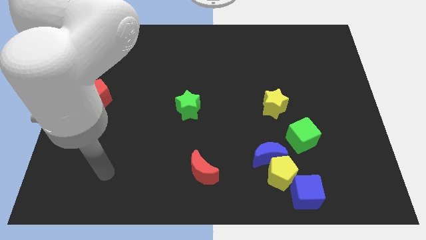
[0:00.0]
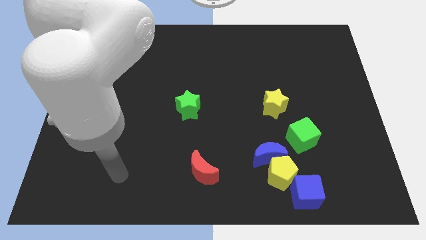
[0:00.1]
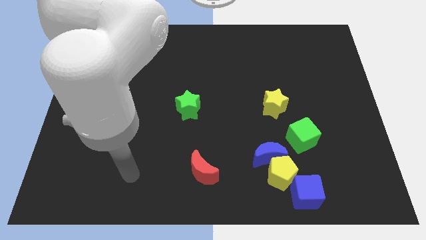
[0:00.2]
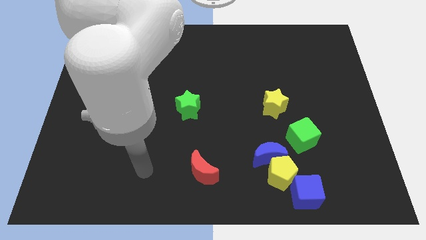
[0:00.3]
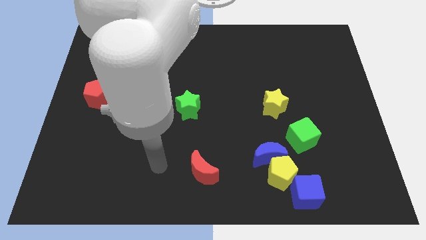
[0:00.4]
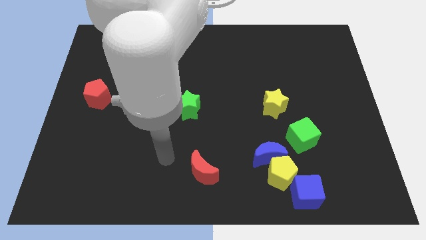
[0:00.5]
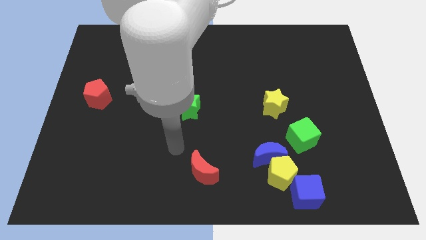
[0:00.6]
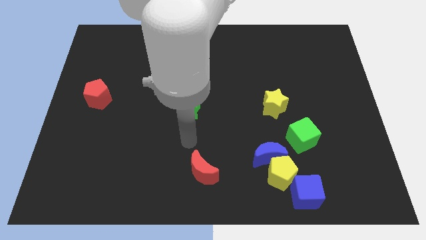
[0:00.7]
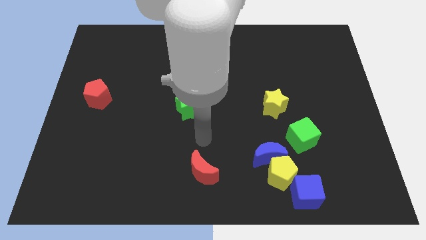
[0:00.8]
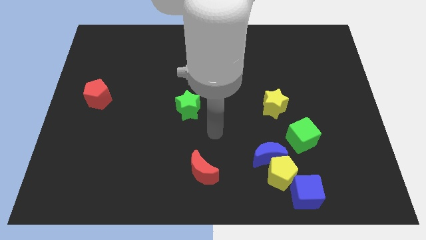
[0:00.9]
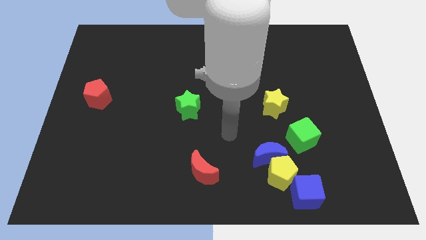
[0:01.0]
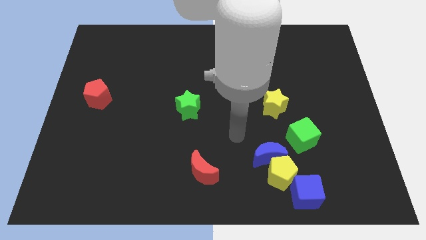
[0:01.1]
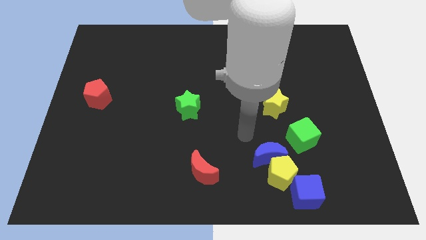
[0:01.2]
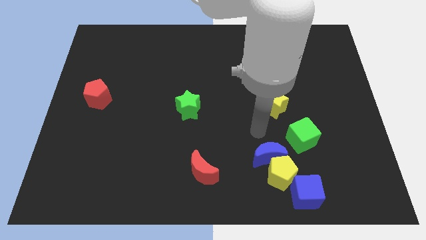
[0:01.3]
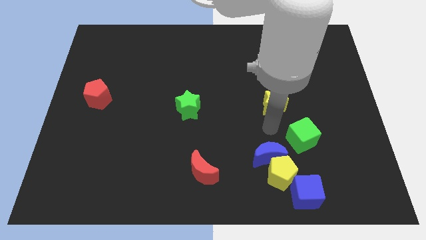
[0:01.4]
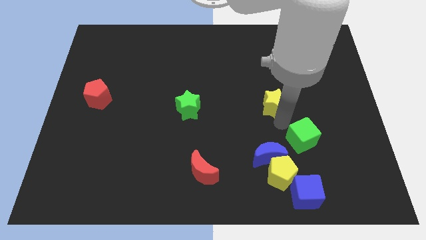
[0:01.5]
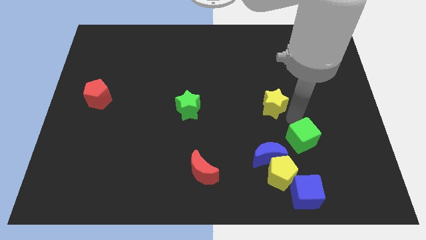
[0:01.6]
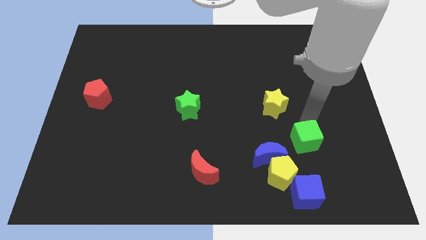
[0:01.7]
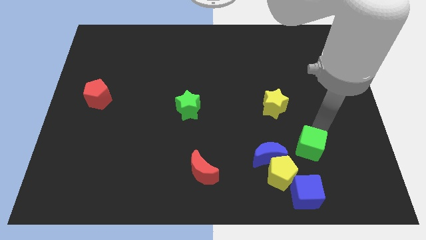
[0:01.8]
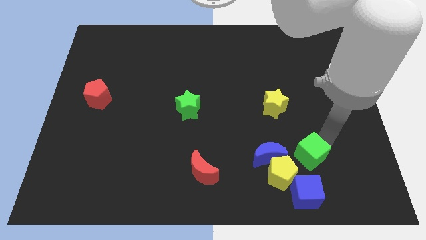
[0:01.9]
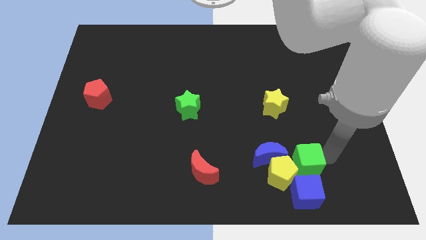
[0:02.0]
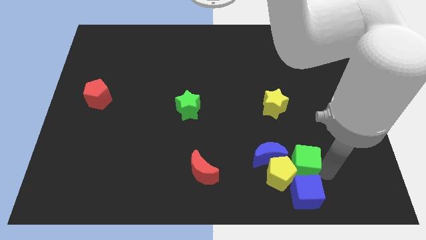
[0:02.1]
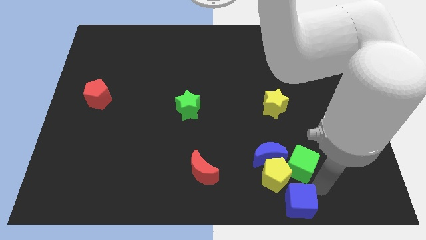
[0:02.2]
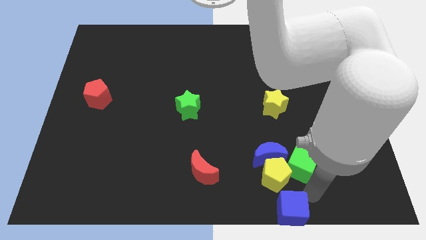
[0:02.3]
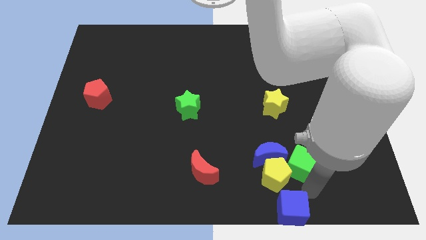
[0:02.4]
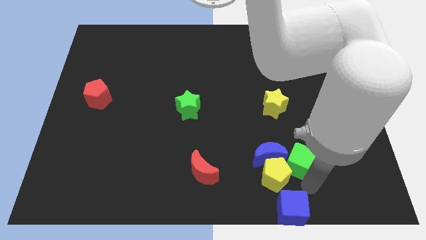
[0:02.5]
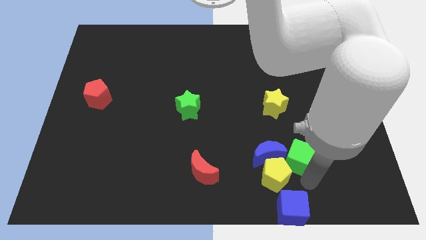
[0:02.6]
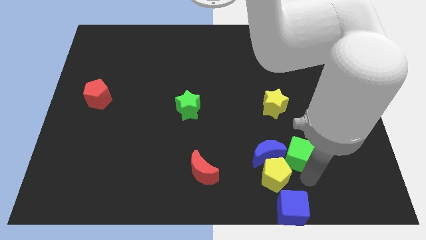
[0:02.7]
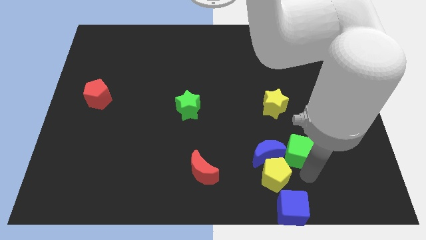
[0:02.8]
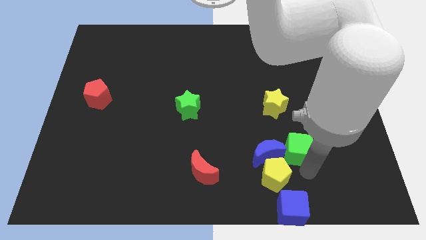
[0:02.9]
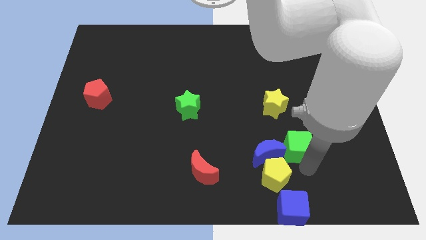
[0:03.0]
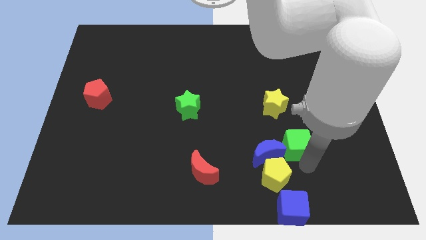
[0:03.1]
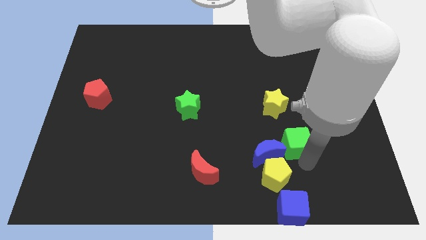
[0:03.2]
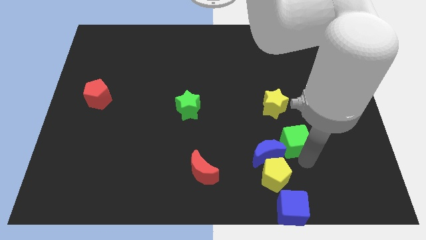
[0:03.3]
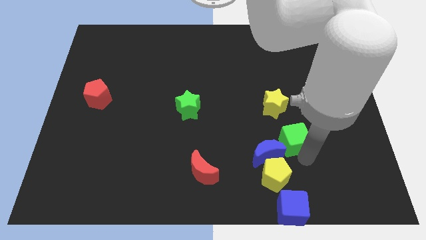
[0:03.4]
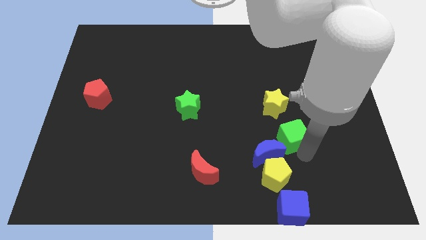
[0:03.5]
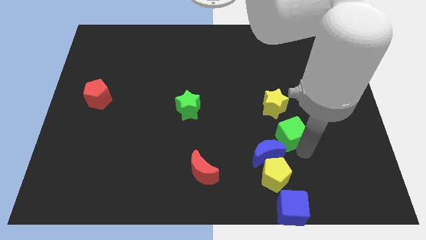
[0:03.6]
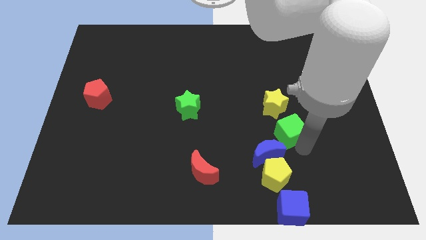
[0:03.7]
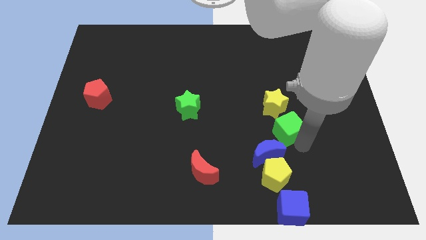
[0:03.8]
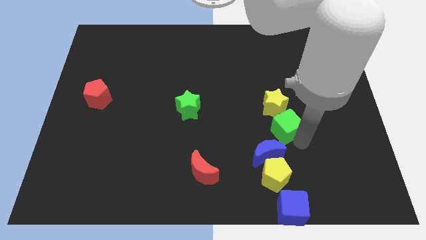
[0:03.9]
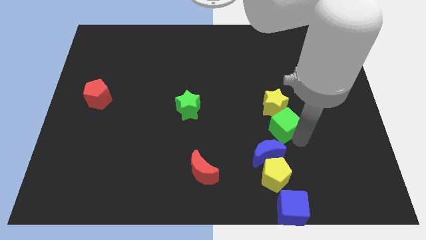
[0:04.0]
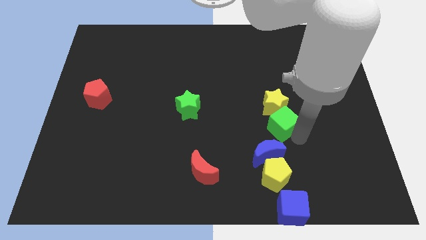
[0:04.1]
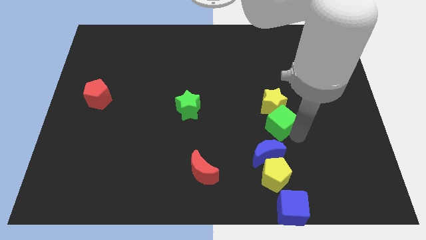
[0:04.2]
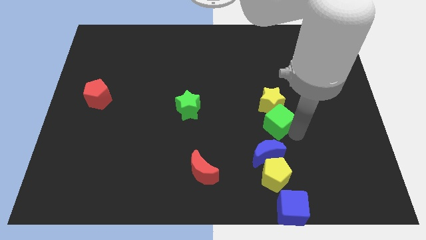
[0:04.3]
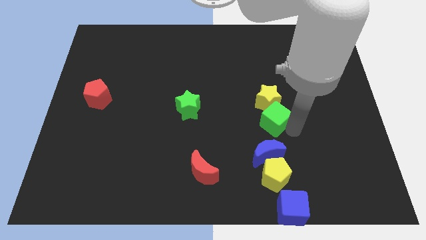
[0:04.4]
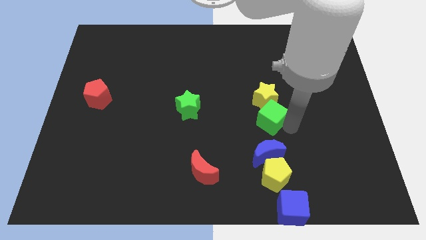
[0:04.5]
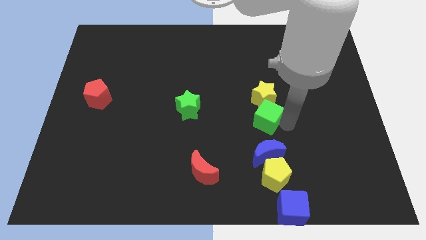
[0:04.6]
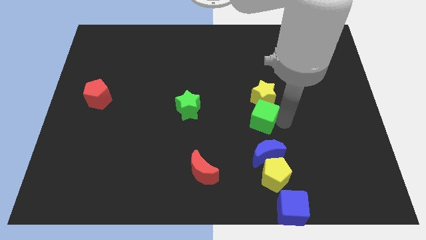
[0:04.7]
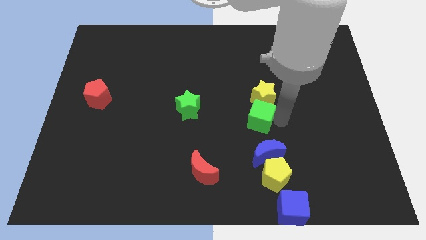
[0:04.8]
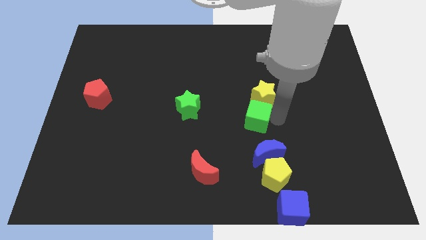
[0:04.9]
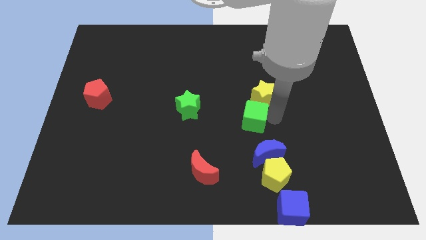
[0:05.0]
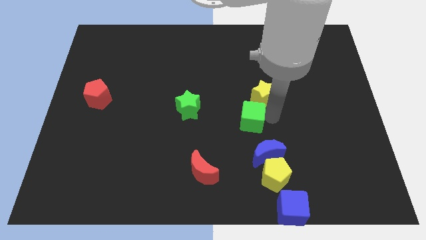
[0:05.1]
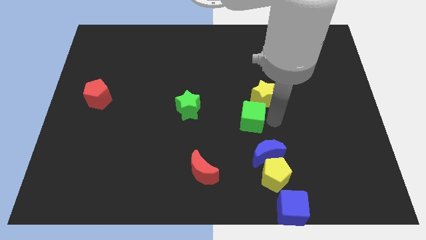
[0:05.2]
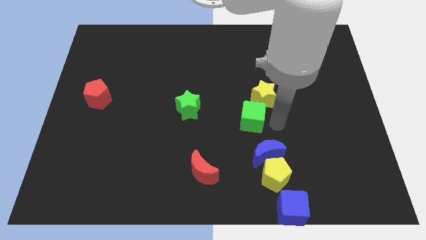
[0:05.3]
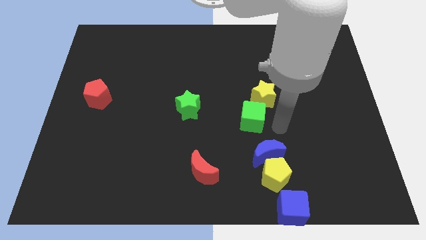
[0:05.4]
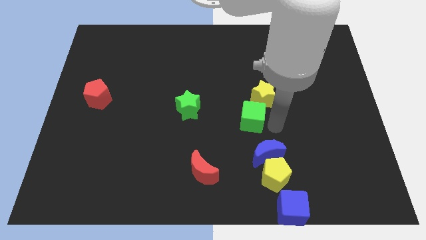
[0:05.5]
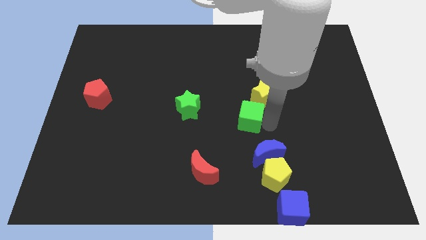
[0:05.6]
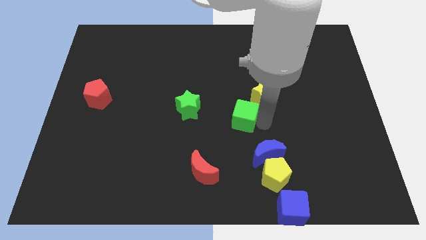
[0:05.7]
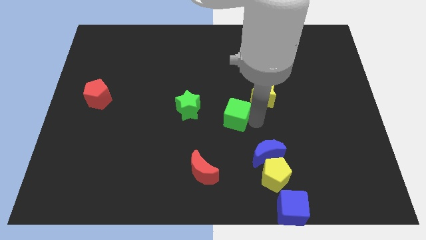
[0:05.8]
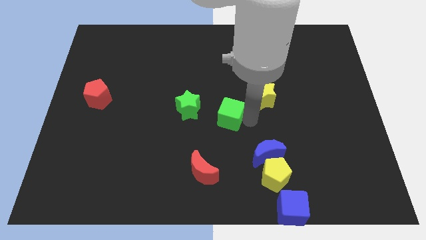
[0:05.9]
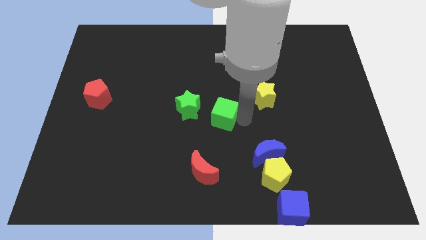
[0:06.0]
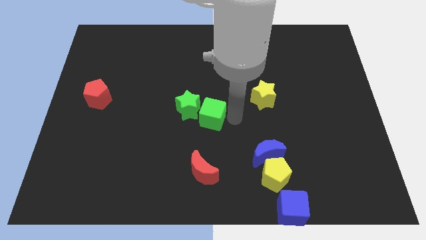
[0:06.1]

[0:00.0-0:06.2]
move the green cube towards the green star

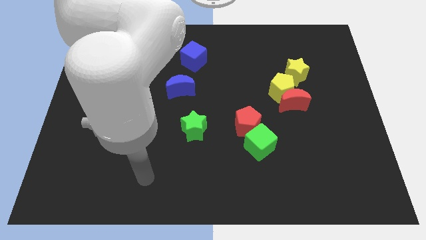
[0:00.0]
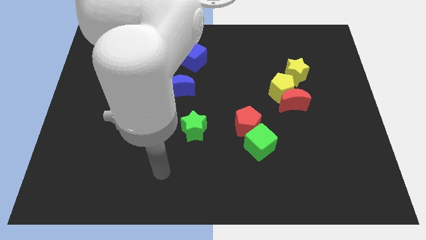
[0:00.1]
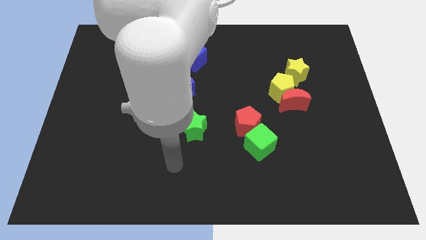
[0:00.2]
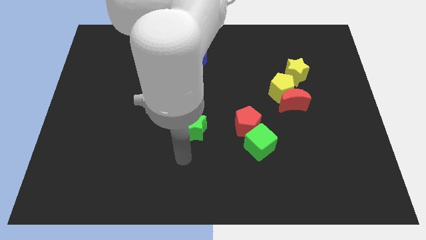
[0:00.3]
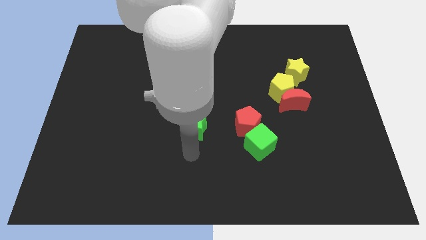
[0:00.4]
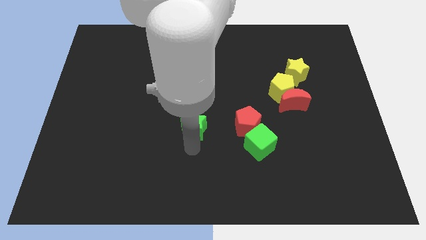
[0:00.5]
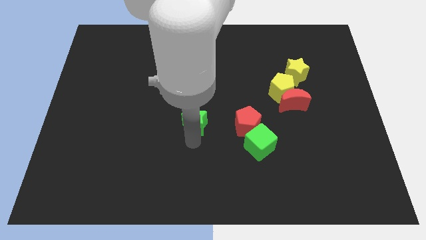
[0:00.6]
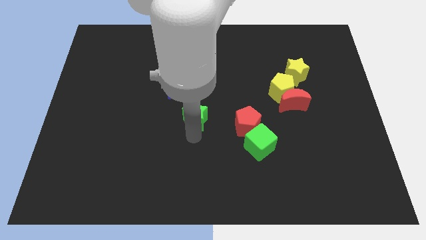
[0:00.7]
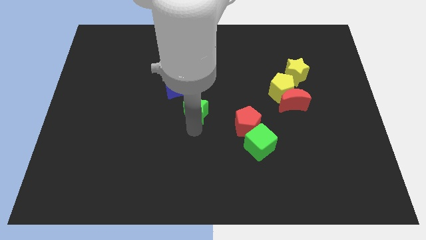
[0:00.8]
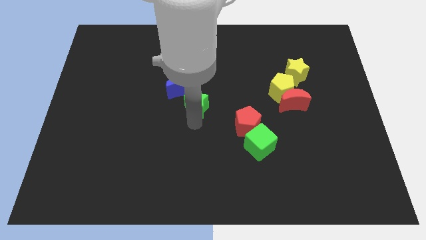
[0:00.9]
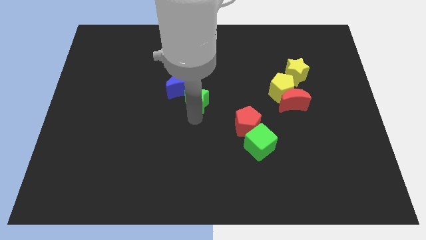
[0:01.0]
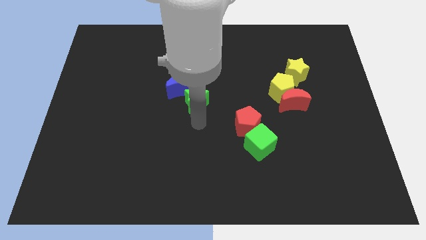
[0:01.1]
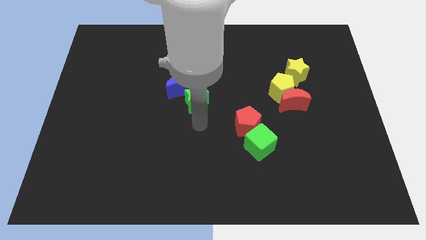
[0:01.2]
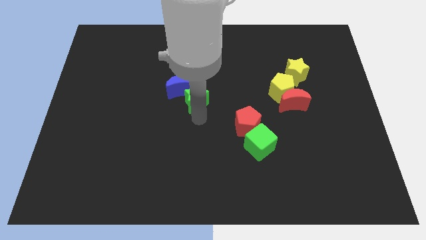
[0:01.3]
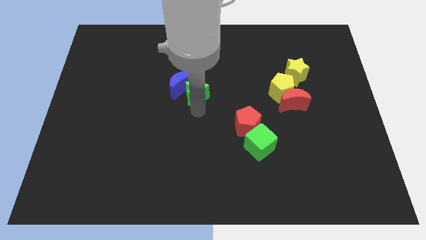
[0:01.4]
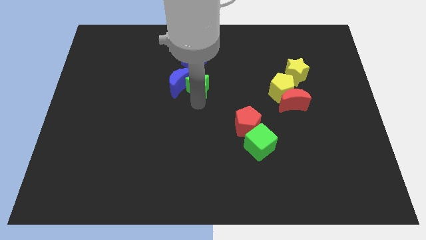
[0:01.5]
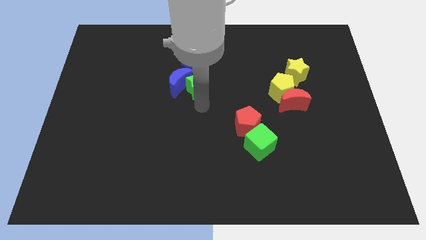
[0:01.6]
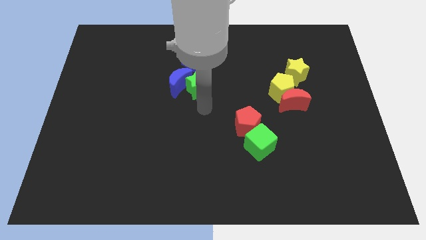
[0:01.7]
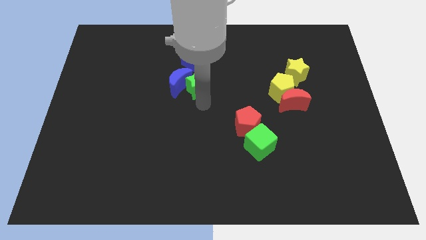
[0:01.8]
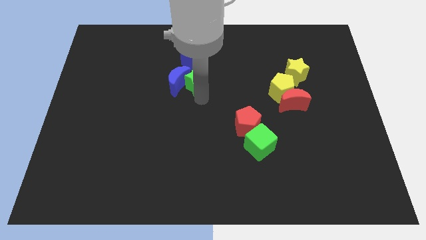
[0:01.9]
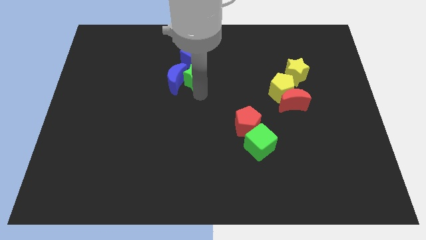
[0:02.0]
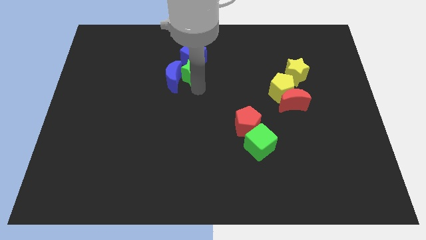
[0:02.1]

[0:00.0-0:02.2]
move the green star towards the blue cube
